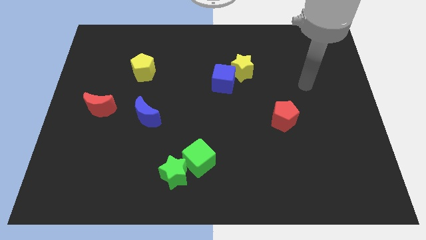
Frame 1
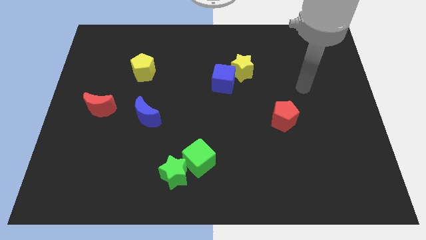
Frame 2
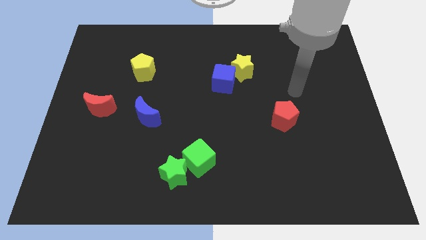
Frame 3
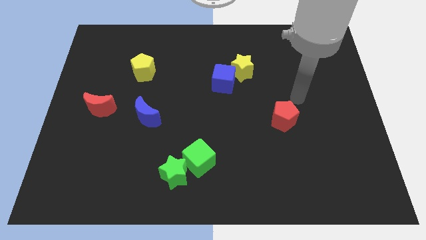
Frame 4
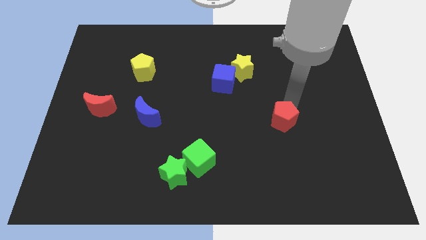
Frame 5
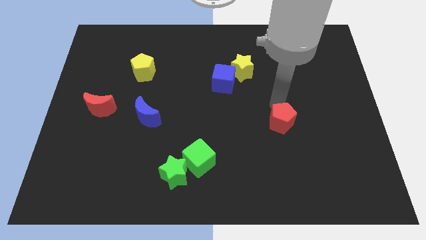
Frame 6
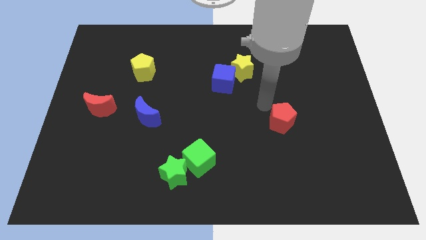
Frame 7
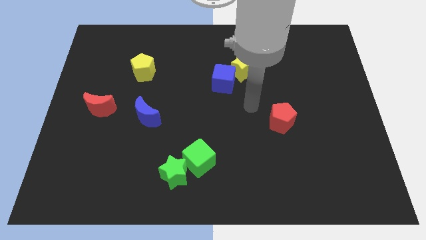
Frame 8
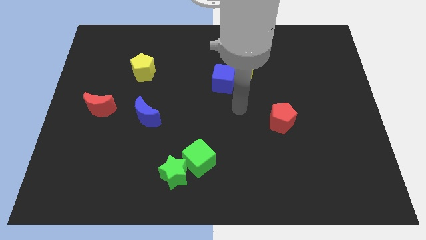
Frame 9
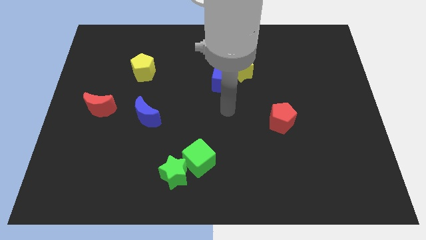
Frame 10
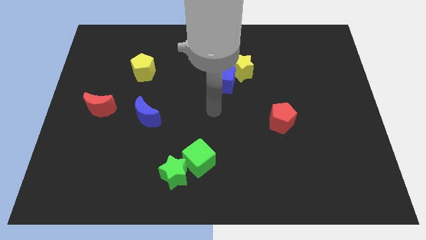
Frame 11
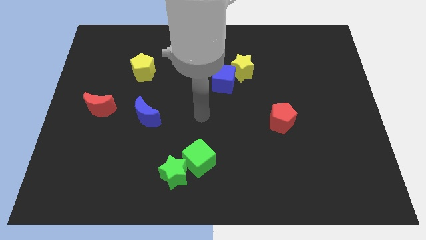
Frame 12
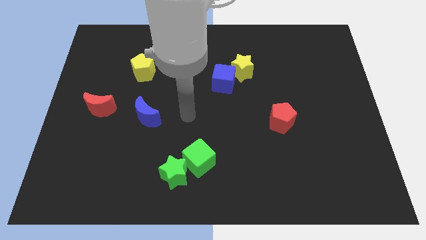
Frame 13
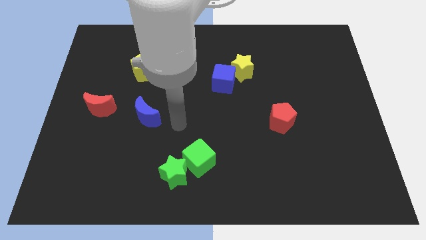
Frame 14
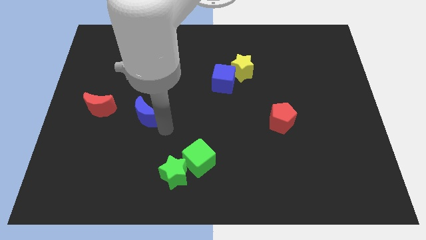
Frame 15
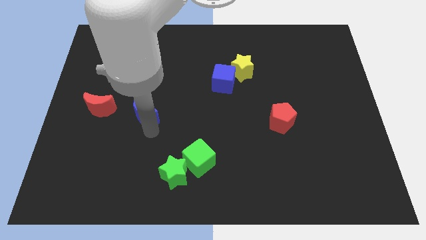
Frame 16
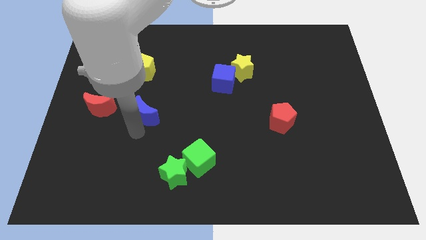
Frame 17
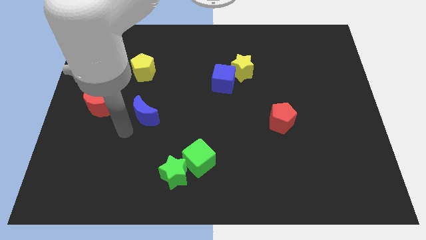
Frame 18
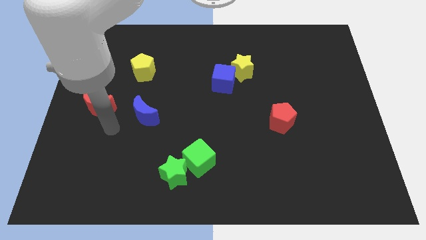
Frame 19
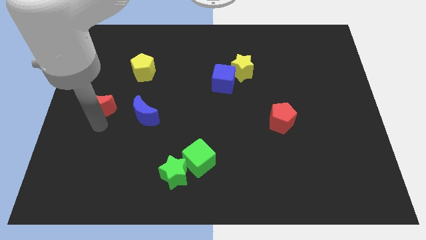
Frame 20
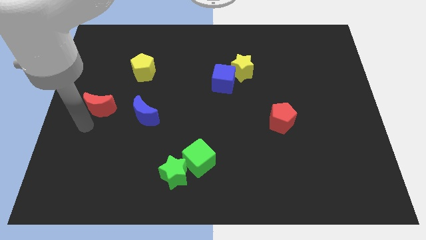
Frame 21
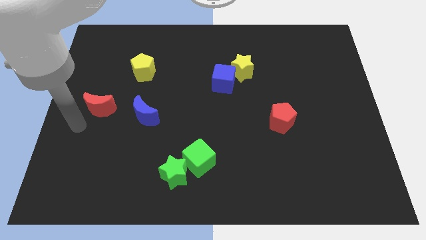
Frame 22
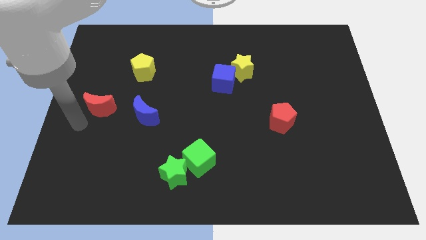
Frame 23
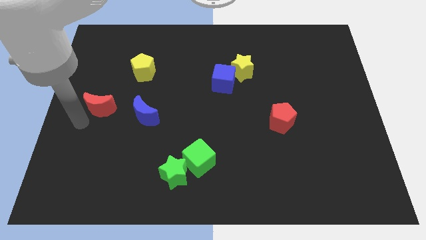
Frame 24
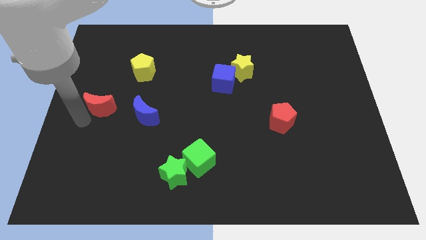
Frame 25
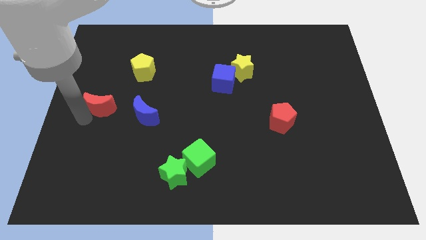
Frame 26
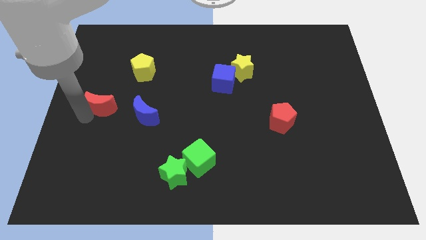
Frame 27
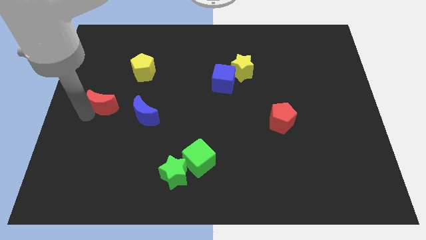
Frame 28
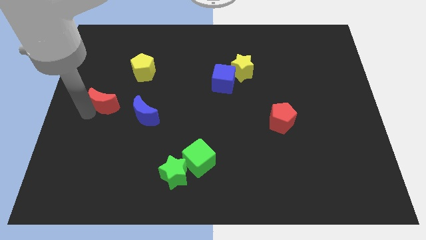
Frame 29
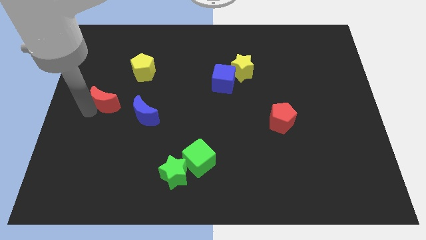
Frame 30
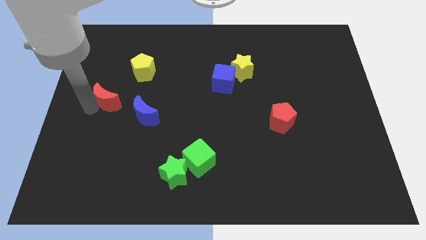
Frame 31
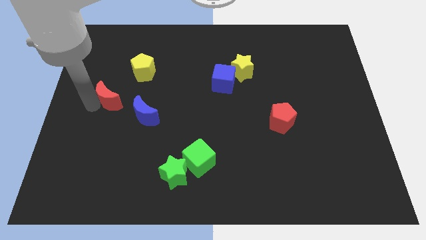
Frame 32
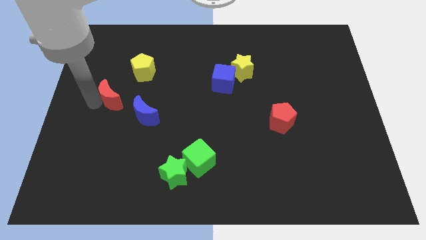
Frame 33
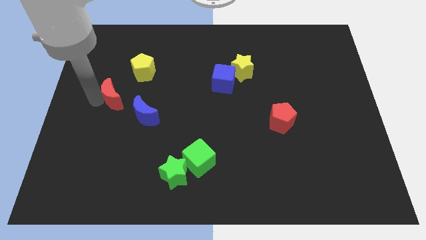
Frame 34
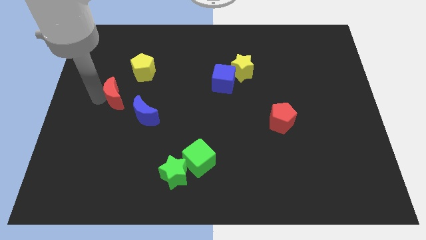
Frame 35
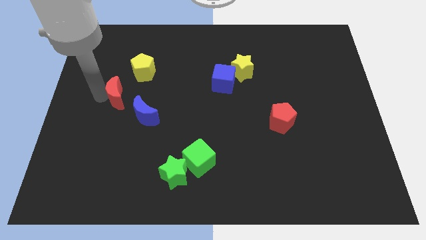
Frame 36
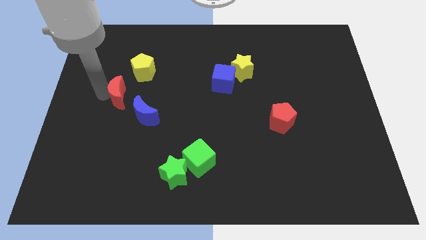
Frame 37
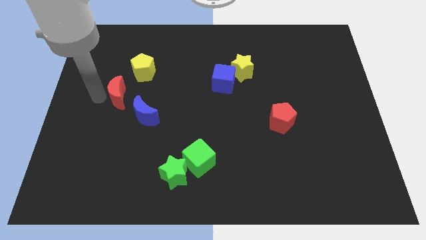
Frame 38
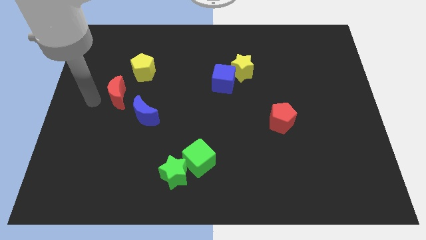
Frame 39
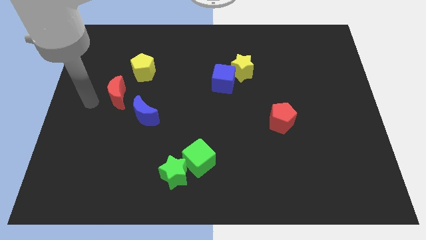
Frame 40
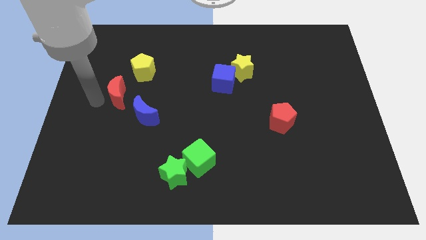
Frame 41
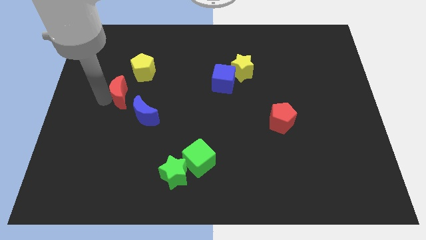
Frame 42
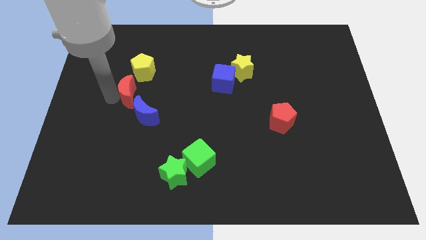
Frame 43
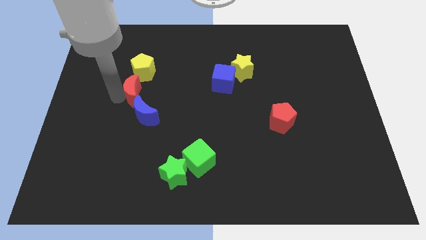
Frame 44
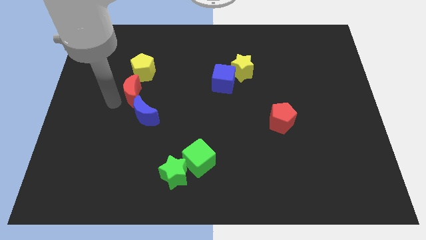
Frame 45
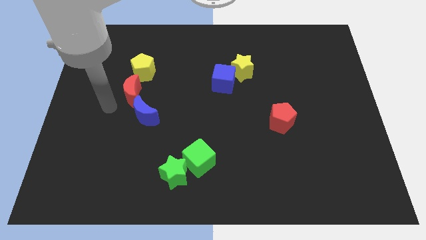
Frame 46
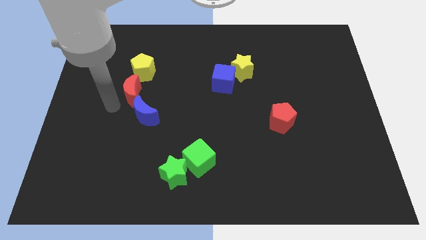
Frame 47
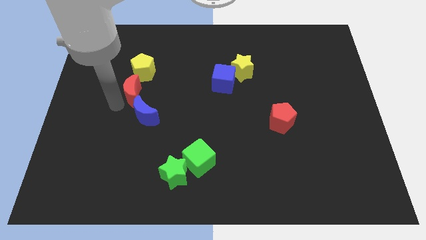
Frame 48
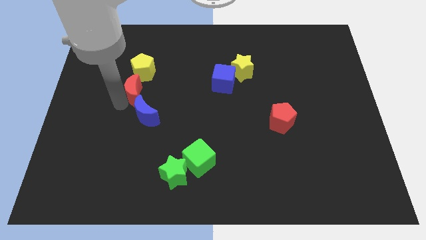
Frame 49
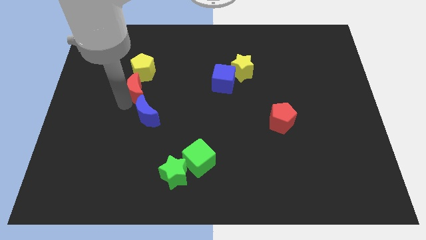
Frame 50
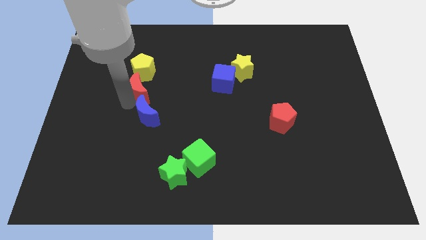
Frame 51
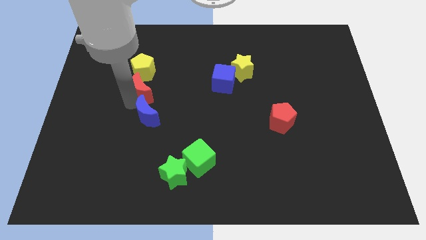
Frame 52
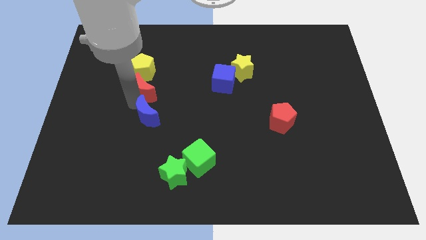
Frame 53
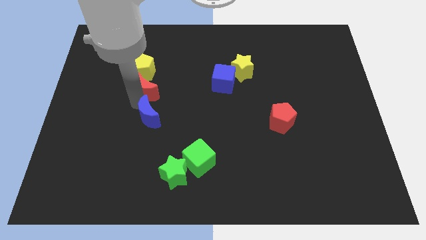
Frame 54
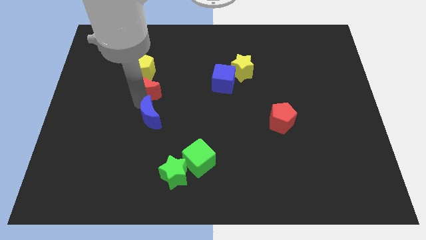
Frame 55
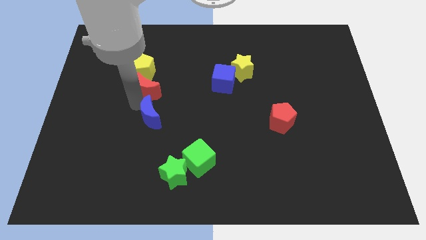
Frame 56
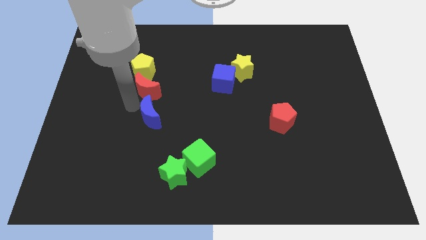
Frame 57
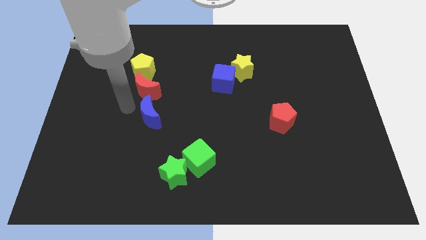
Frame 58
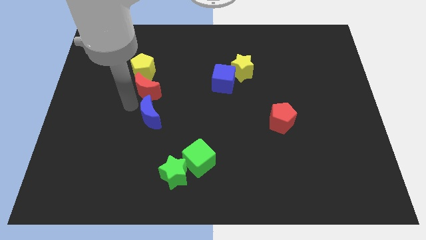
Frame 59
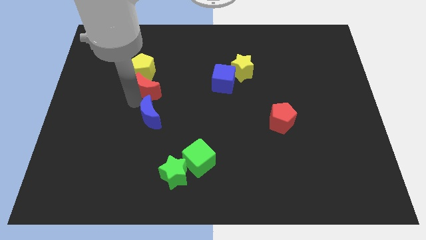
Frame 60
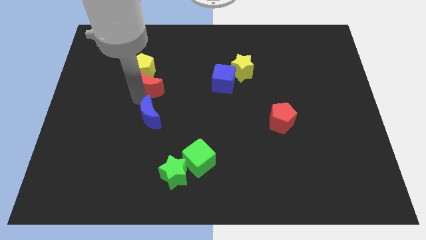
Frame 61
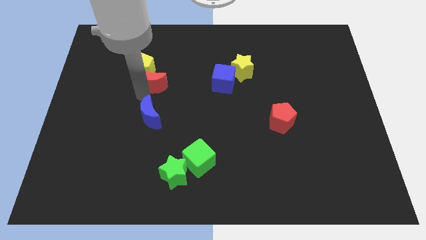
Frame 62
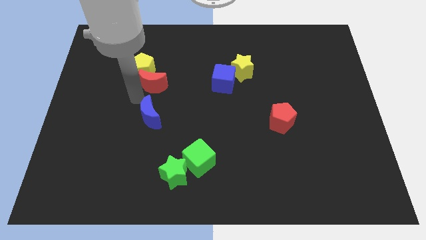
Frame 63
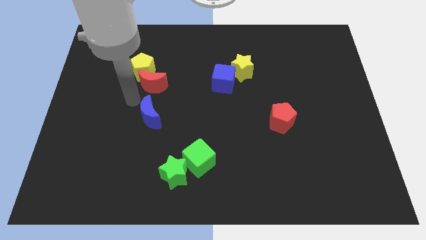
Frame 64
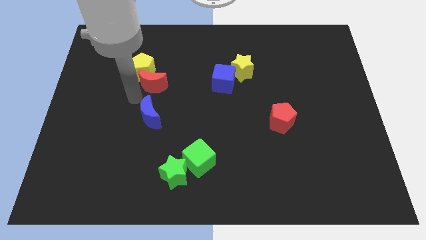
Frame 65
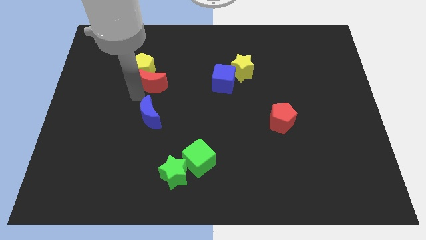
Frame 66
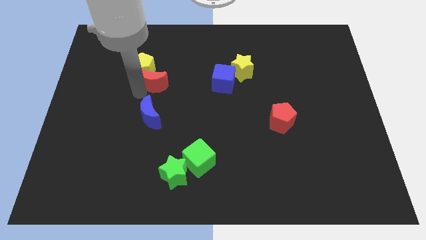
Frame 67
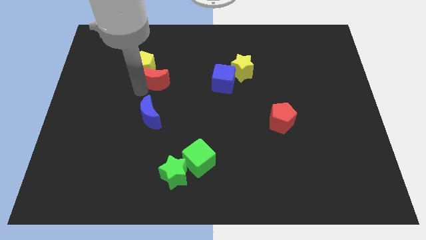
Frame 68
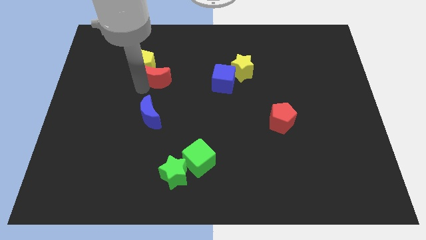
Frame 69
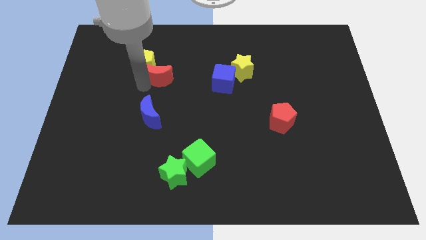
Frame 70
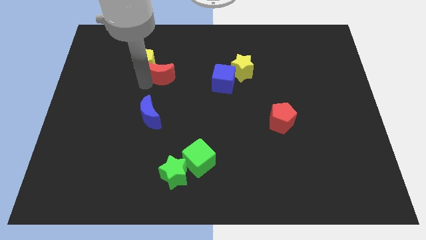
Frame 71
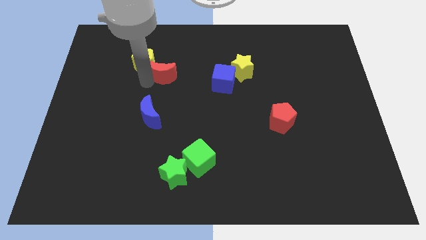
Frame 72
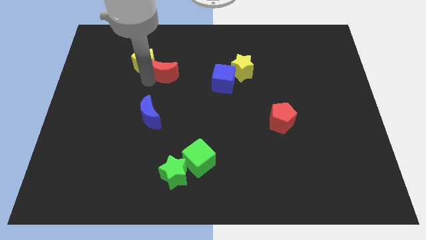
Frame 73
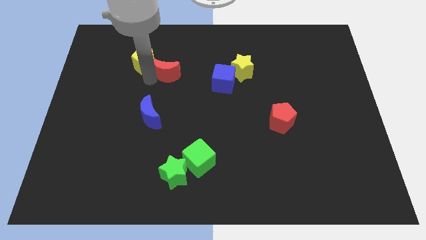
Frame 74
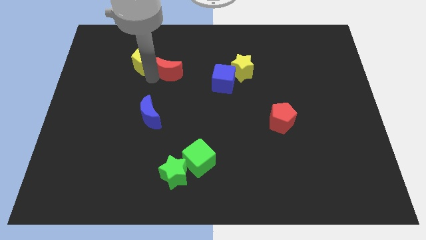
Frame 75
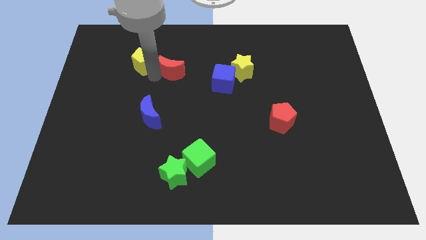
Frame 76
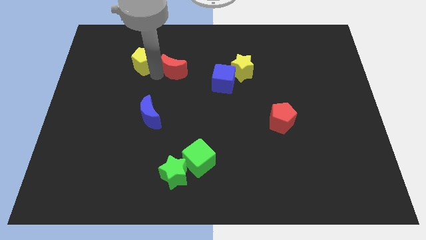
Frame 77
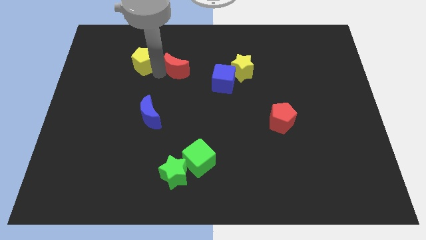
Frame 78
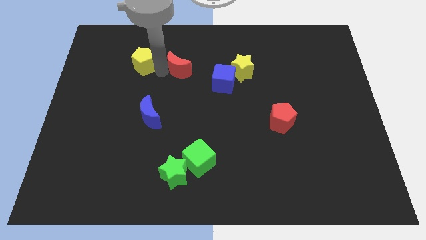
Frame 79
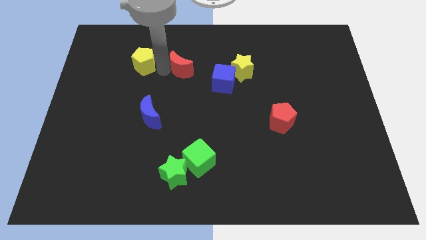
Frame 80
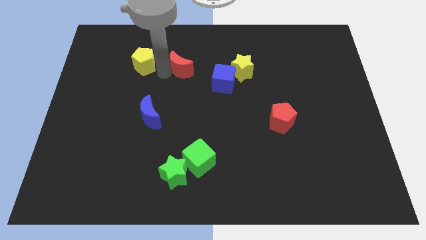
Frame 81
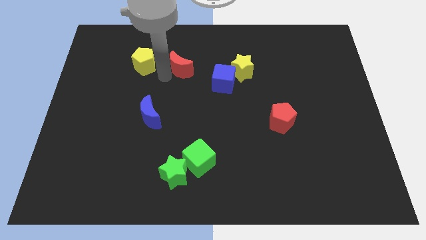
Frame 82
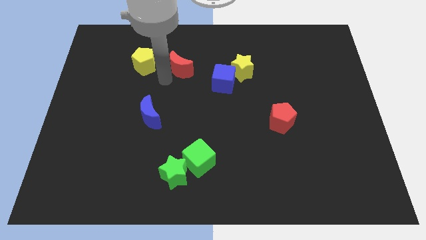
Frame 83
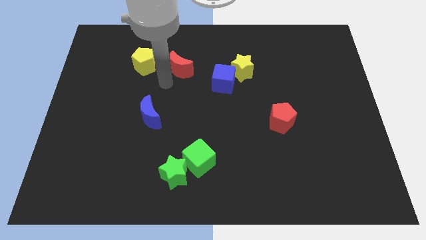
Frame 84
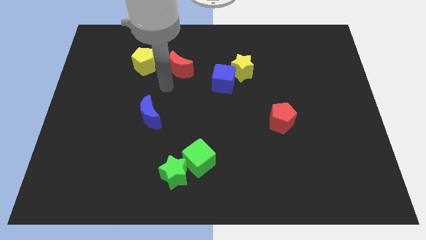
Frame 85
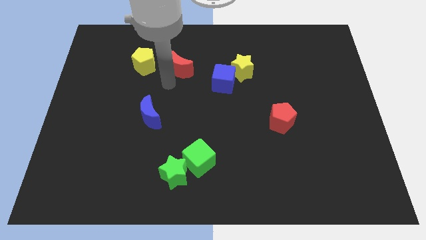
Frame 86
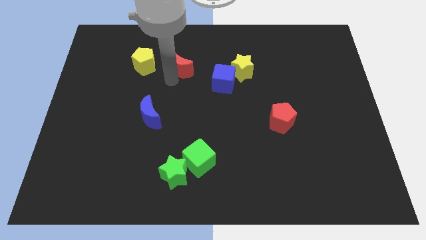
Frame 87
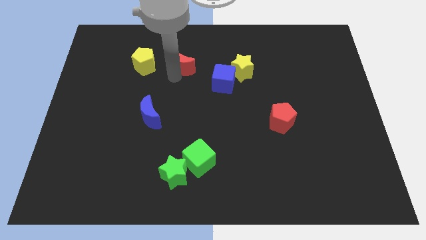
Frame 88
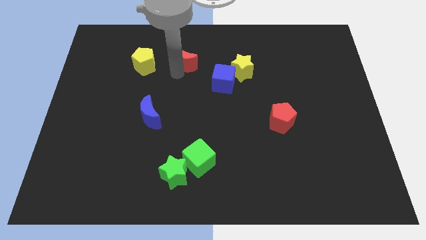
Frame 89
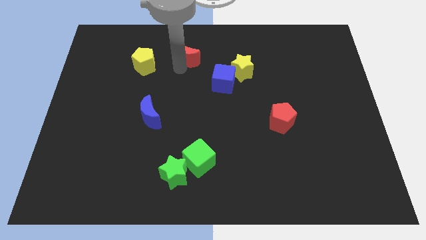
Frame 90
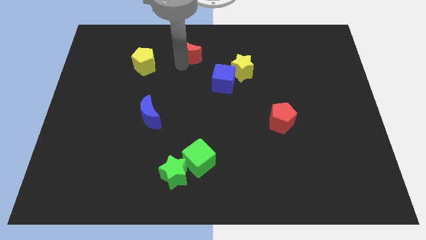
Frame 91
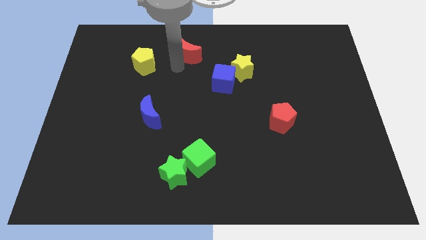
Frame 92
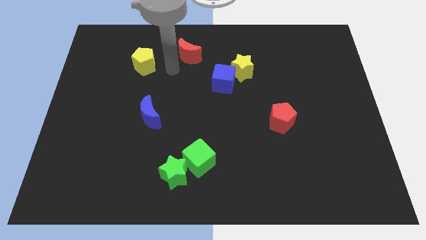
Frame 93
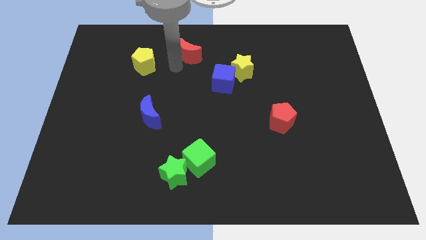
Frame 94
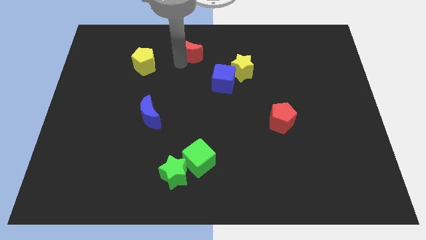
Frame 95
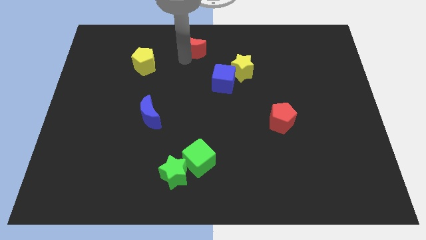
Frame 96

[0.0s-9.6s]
move the red moon to the top
